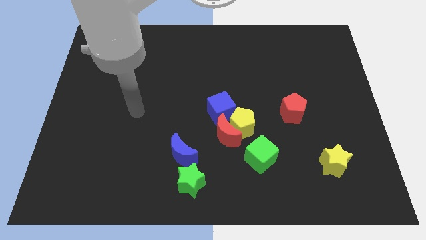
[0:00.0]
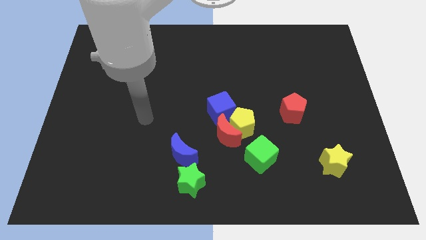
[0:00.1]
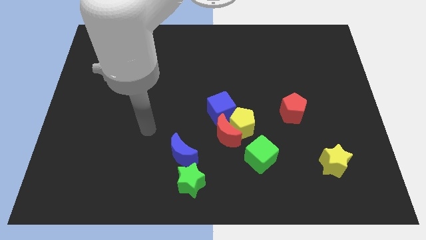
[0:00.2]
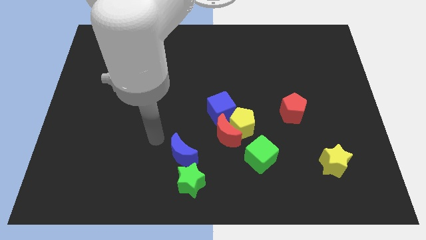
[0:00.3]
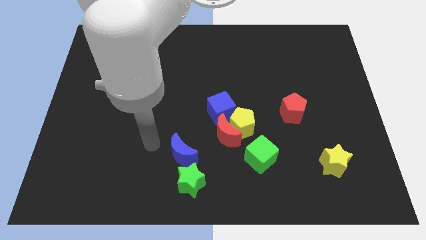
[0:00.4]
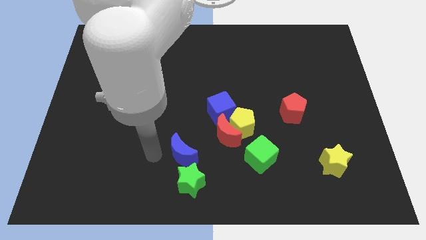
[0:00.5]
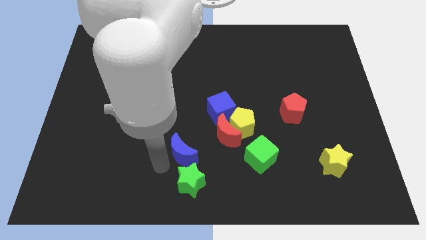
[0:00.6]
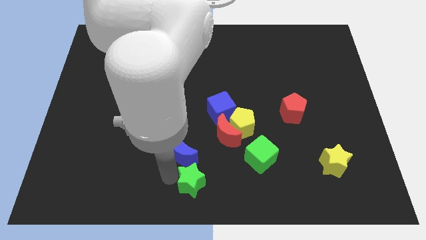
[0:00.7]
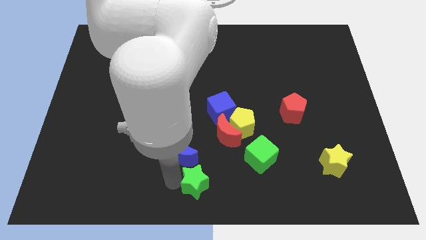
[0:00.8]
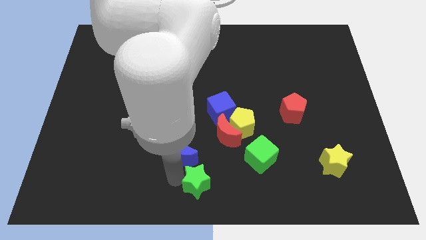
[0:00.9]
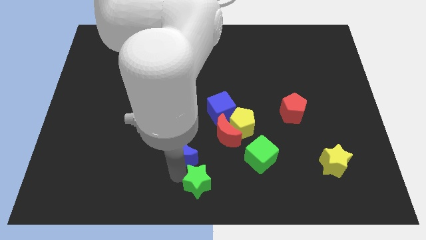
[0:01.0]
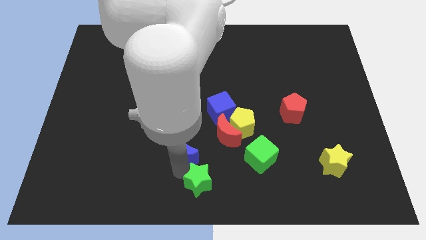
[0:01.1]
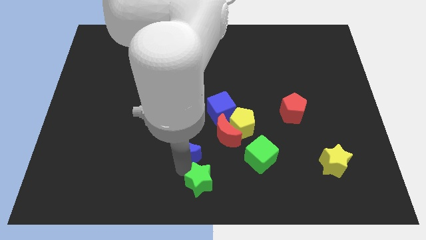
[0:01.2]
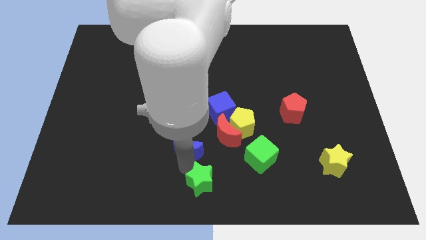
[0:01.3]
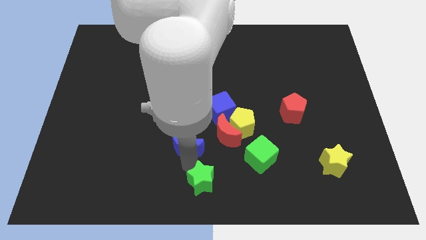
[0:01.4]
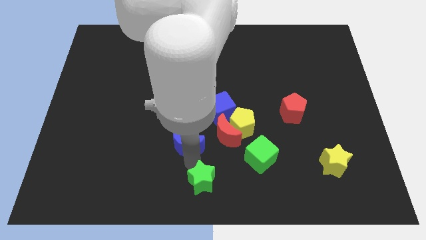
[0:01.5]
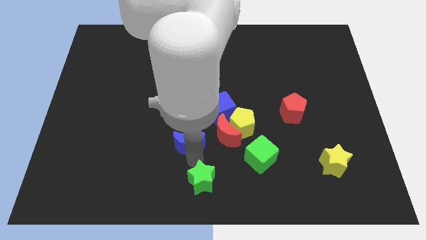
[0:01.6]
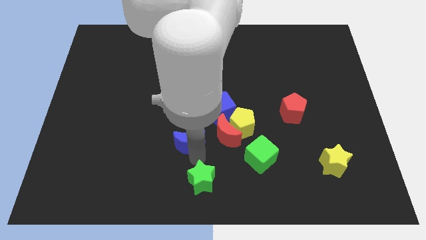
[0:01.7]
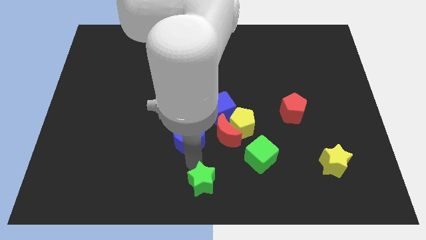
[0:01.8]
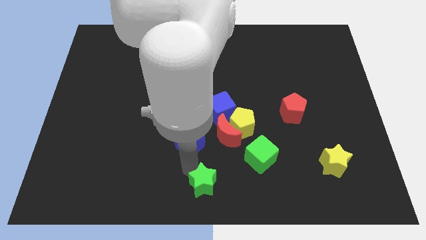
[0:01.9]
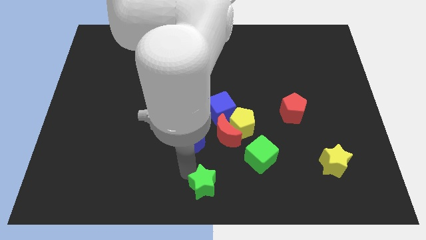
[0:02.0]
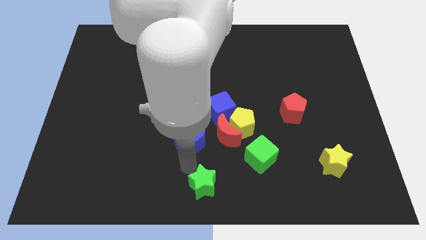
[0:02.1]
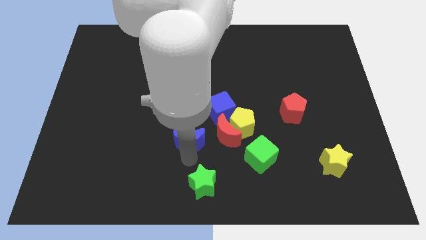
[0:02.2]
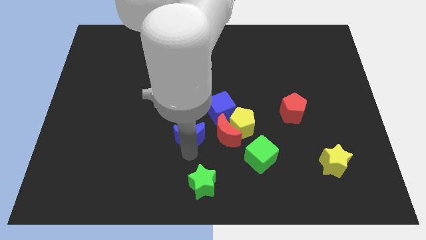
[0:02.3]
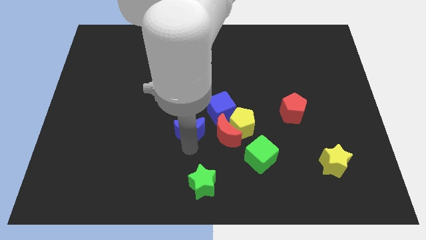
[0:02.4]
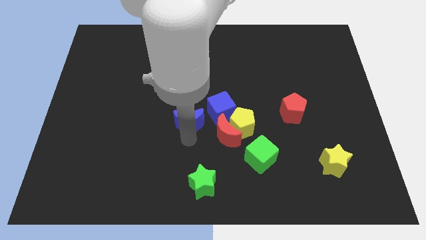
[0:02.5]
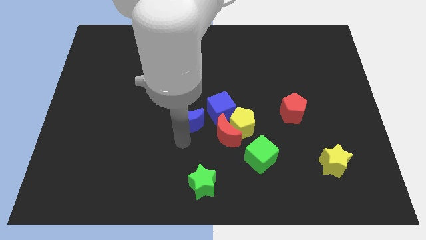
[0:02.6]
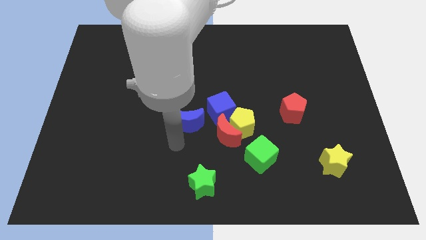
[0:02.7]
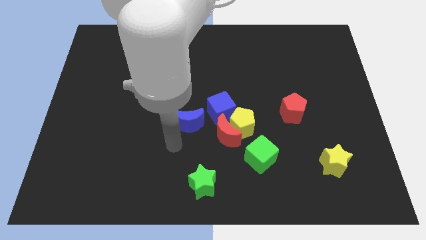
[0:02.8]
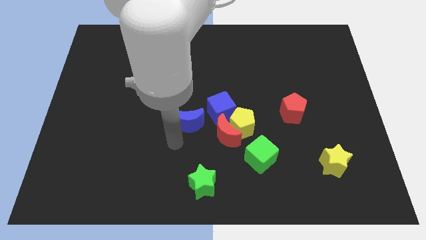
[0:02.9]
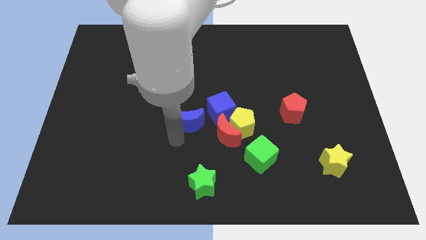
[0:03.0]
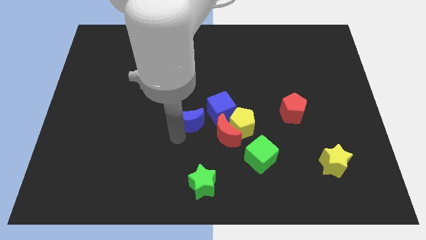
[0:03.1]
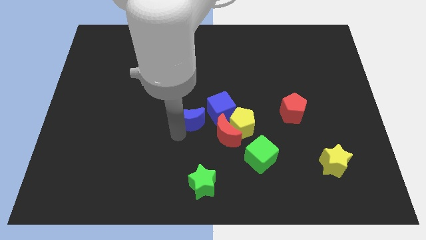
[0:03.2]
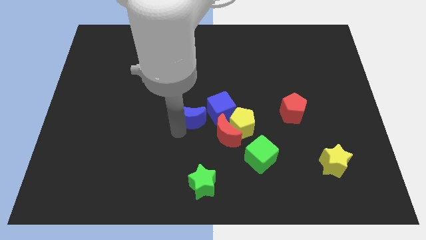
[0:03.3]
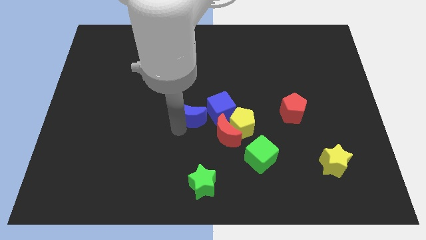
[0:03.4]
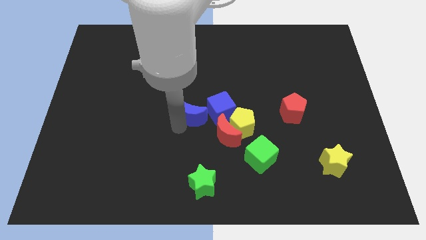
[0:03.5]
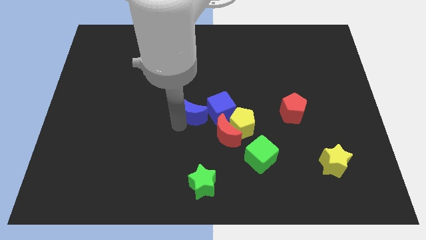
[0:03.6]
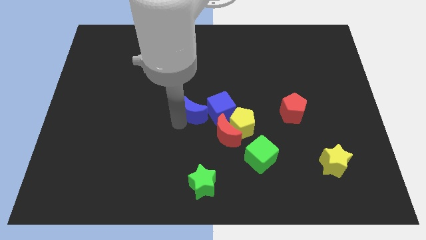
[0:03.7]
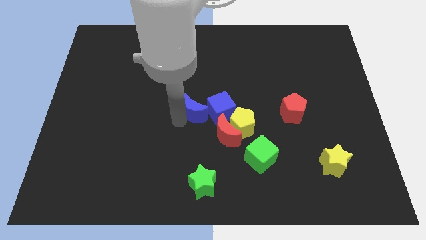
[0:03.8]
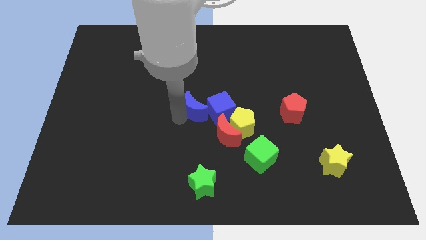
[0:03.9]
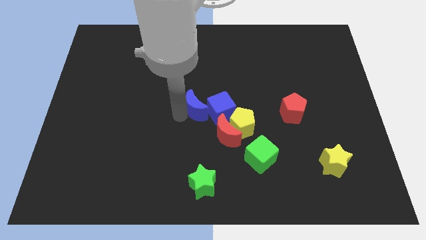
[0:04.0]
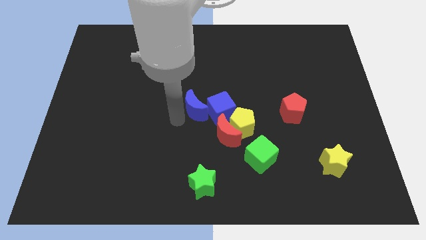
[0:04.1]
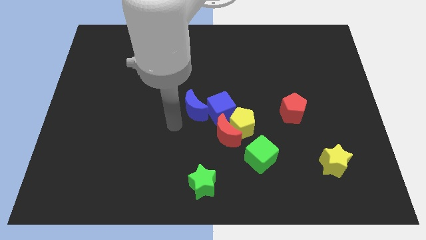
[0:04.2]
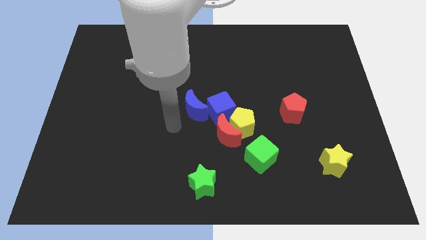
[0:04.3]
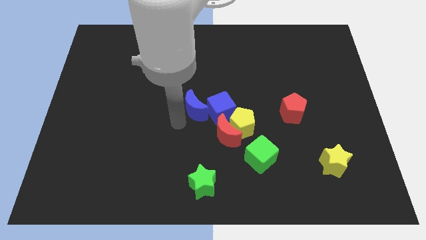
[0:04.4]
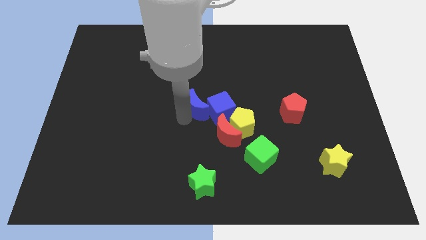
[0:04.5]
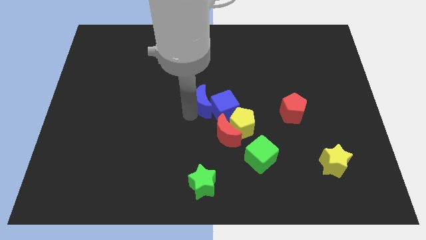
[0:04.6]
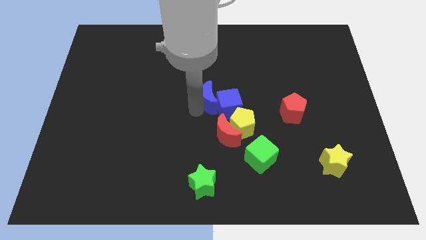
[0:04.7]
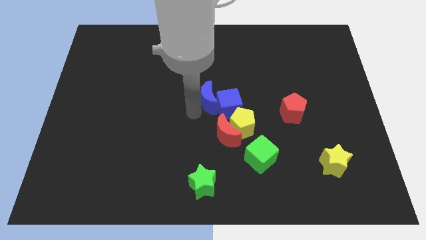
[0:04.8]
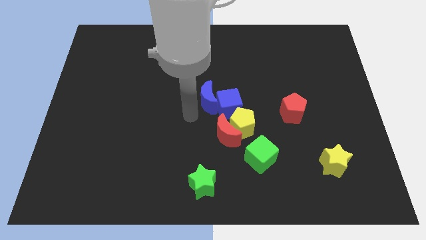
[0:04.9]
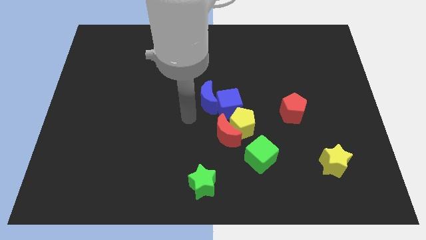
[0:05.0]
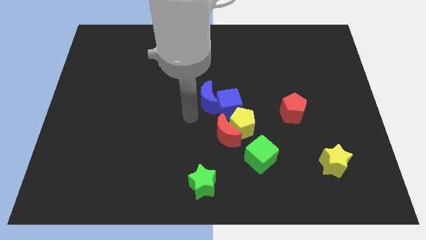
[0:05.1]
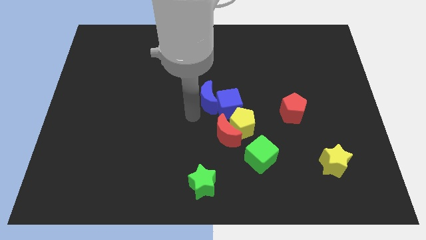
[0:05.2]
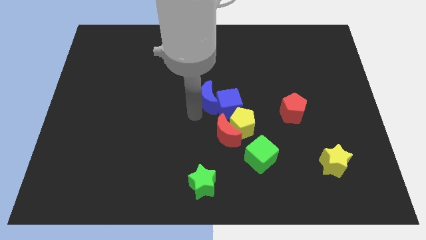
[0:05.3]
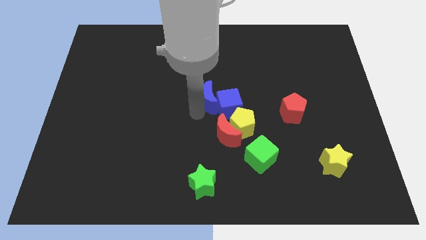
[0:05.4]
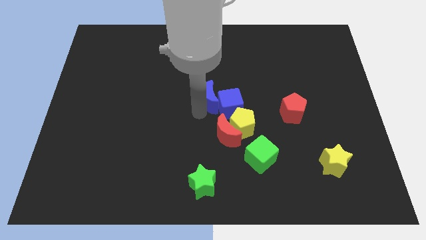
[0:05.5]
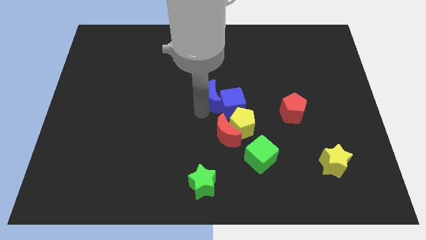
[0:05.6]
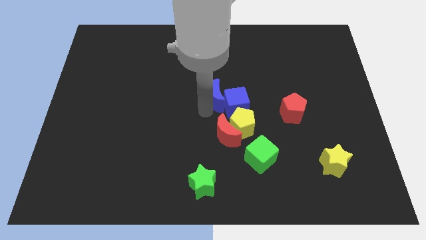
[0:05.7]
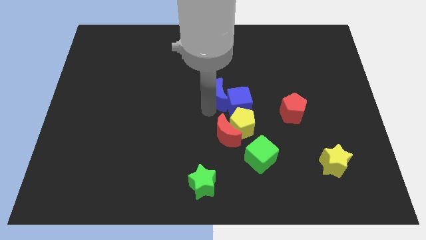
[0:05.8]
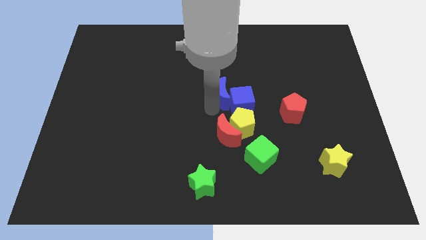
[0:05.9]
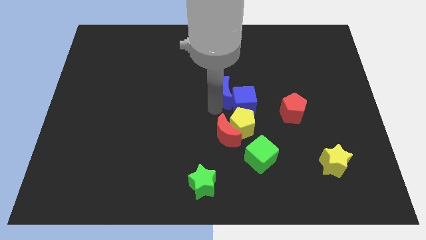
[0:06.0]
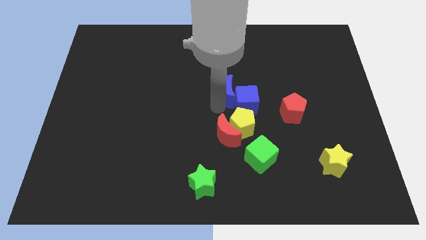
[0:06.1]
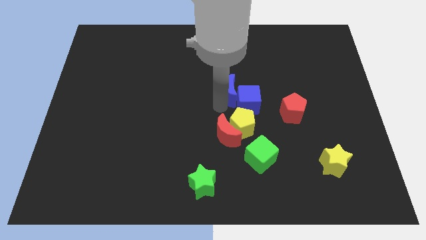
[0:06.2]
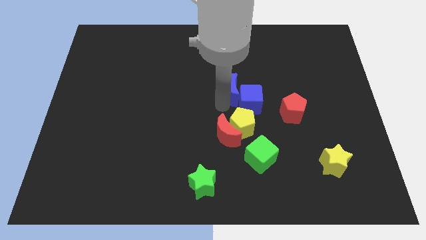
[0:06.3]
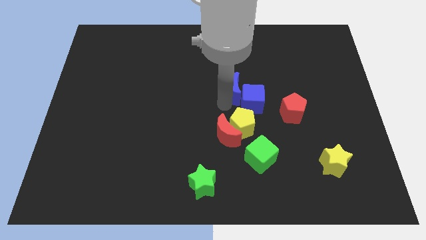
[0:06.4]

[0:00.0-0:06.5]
push the blue moon upwards and then right

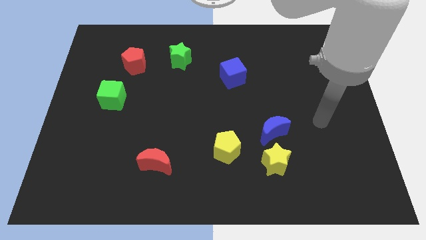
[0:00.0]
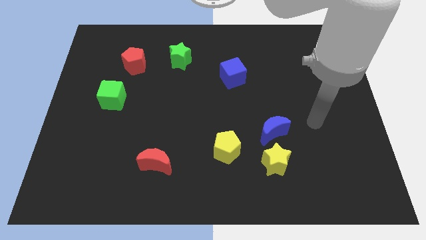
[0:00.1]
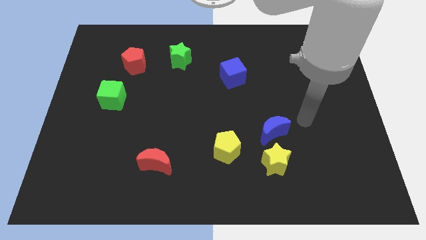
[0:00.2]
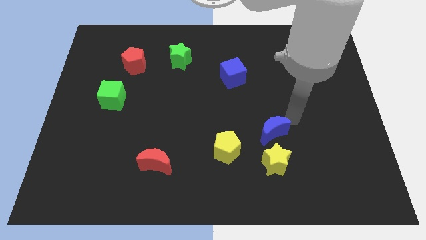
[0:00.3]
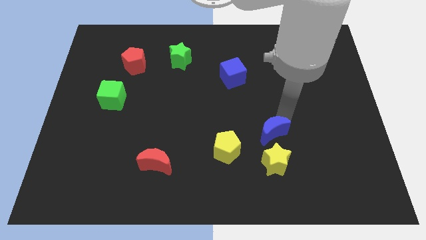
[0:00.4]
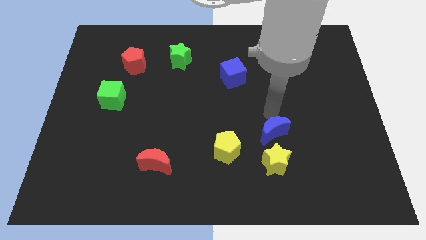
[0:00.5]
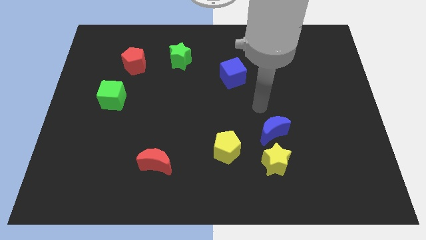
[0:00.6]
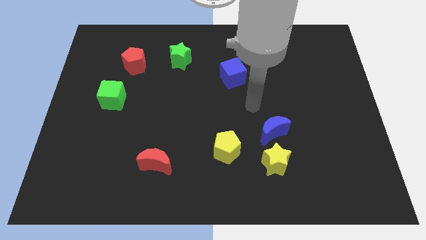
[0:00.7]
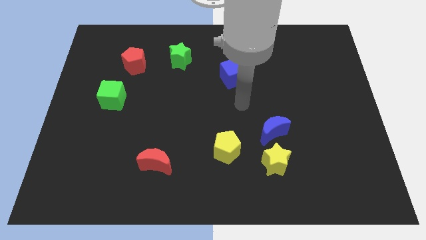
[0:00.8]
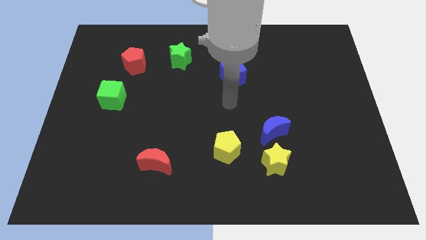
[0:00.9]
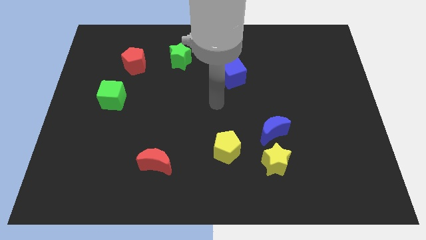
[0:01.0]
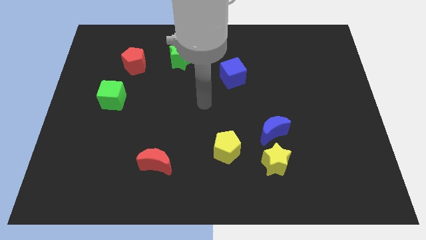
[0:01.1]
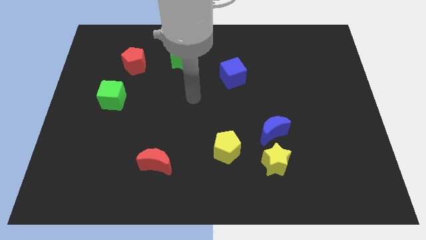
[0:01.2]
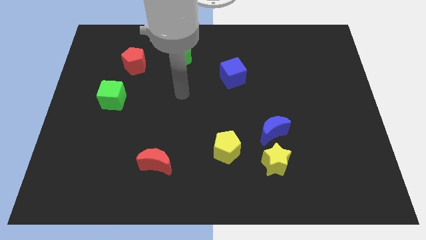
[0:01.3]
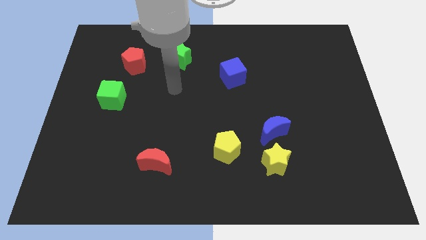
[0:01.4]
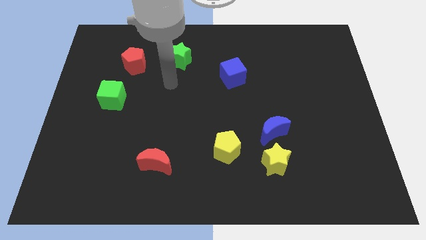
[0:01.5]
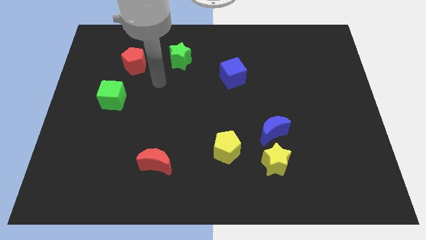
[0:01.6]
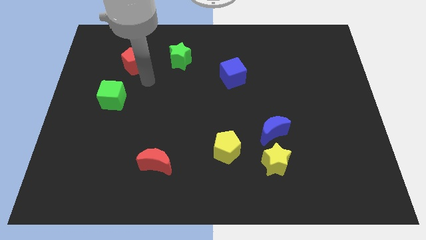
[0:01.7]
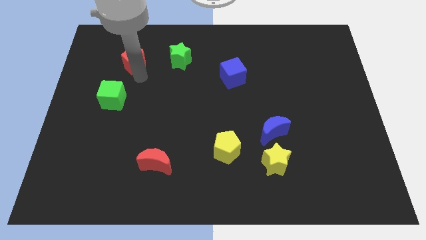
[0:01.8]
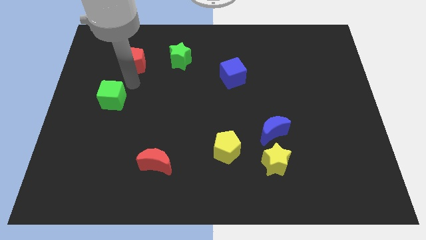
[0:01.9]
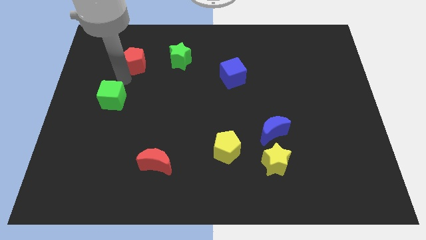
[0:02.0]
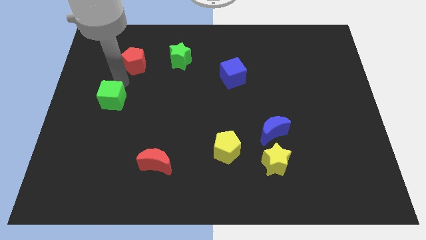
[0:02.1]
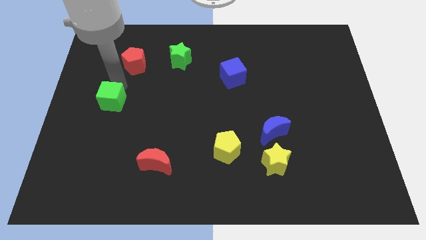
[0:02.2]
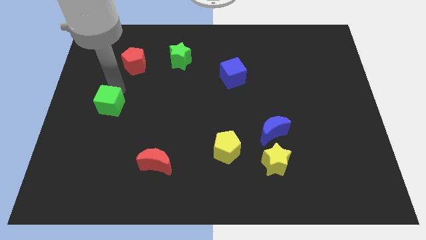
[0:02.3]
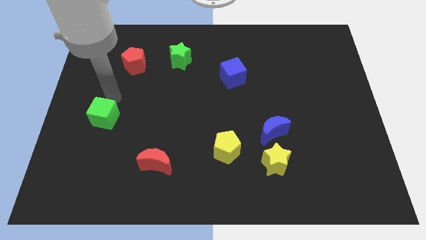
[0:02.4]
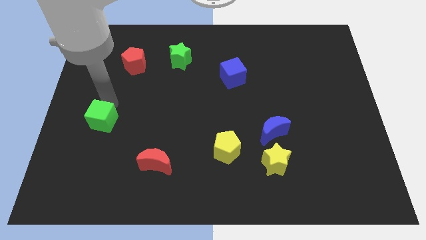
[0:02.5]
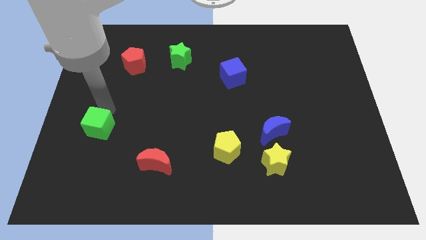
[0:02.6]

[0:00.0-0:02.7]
push the green cube a bit downwards
